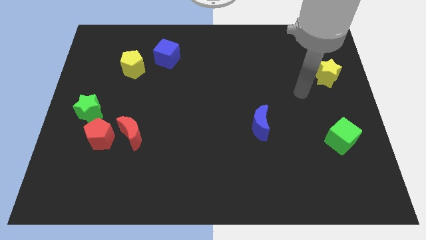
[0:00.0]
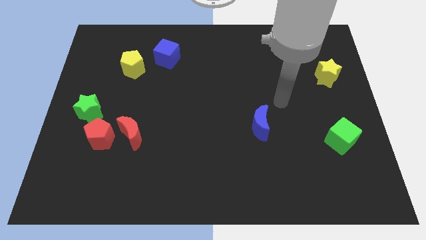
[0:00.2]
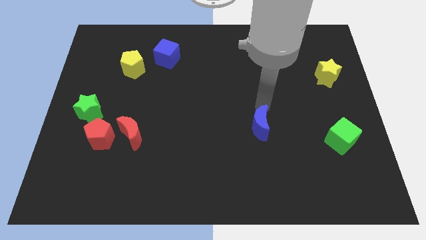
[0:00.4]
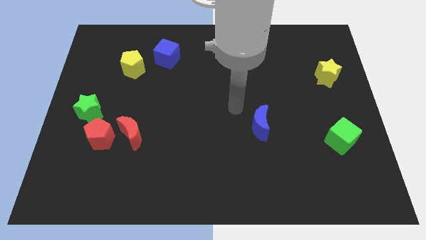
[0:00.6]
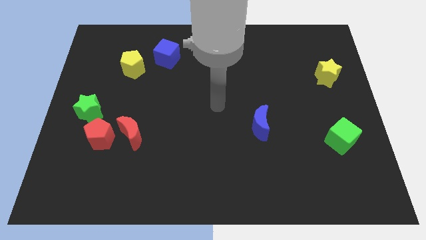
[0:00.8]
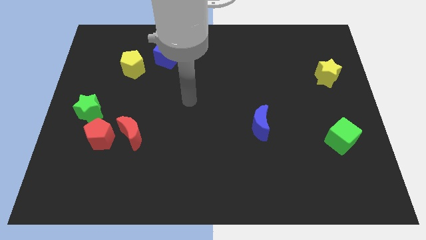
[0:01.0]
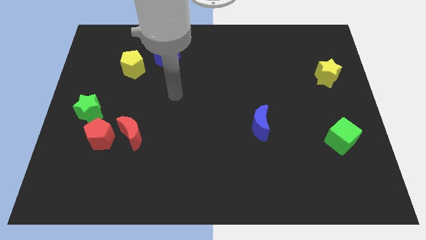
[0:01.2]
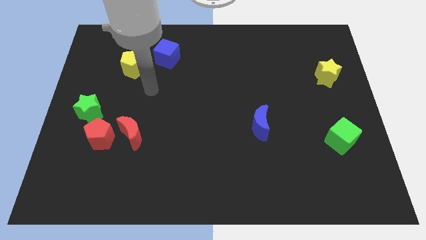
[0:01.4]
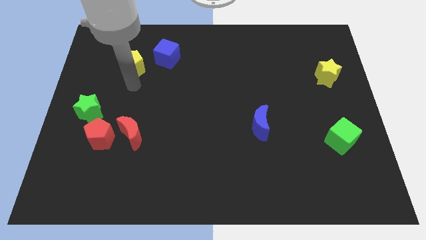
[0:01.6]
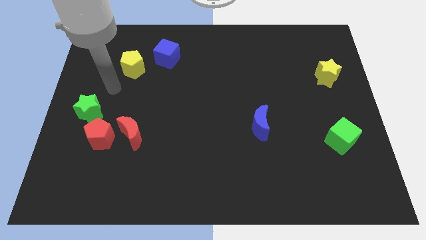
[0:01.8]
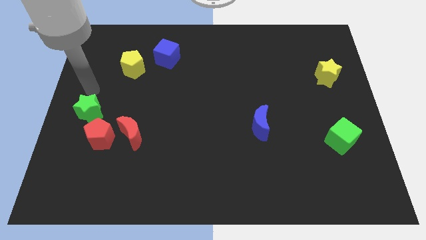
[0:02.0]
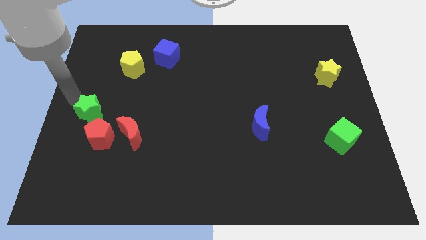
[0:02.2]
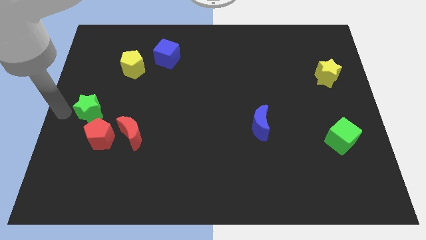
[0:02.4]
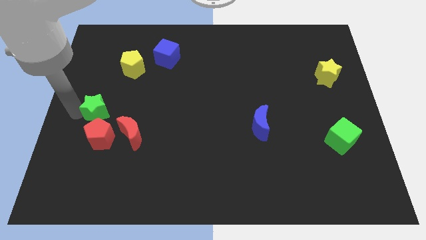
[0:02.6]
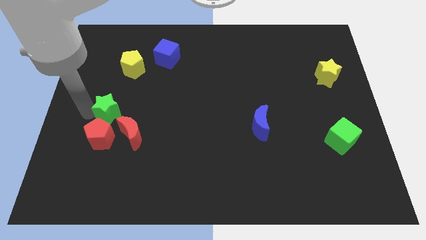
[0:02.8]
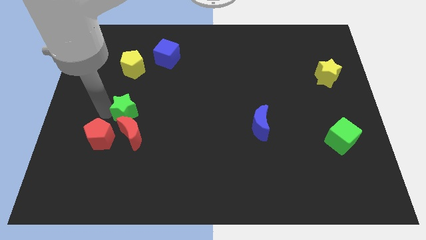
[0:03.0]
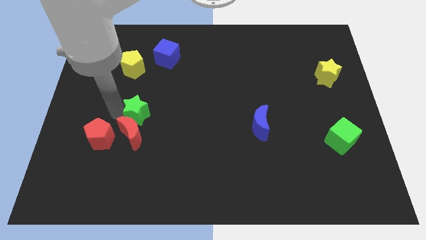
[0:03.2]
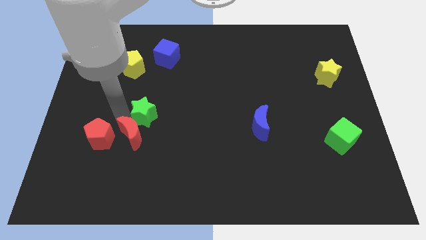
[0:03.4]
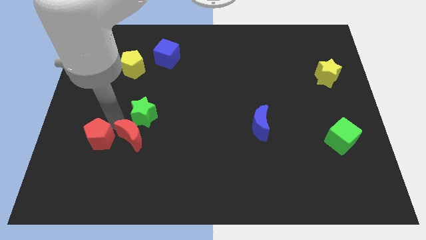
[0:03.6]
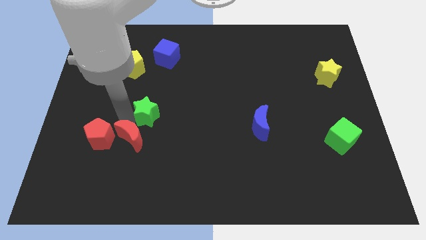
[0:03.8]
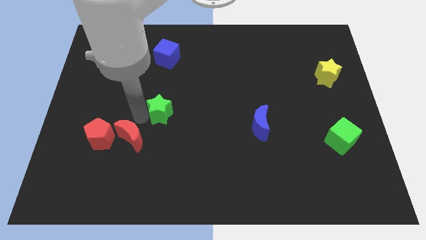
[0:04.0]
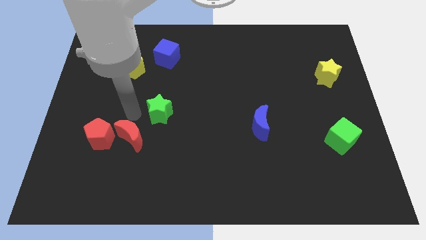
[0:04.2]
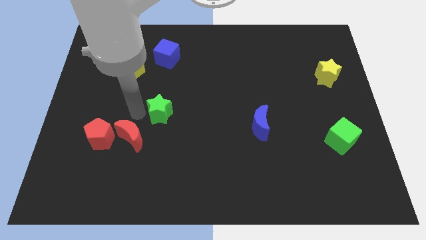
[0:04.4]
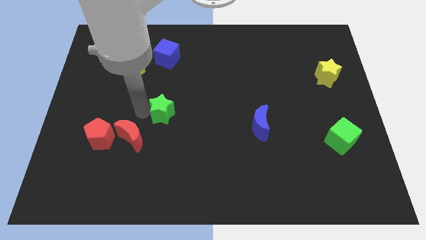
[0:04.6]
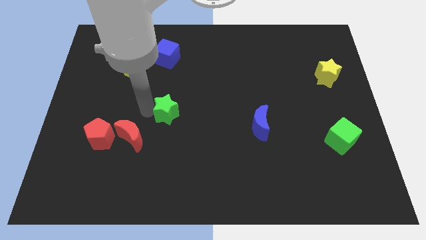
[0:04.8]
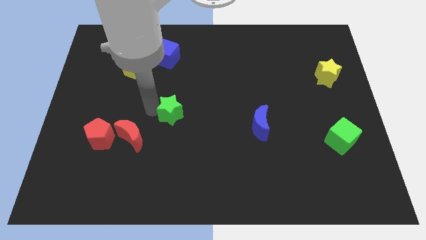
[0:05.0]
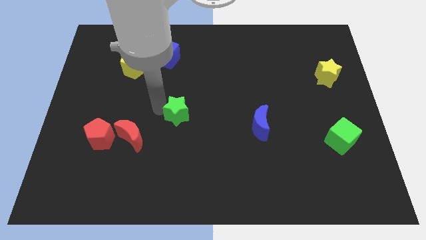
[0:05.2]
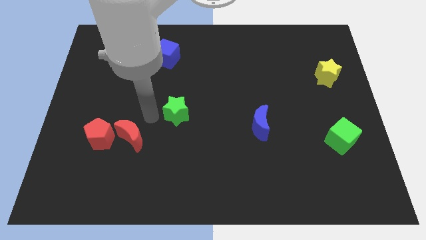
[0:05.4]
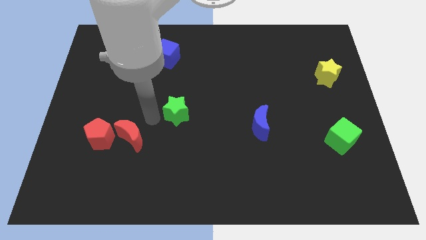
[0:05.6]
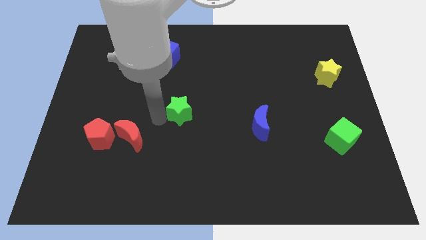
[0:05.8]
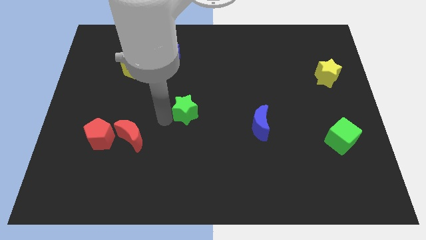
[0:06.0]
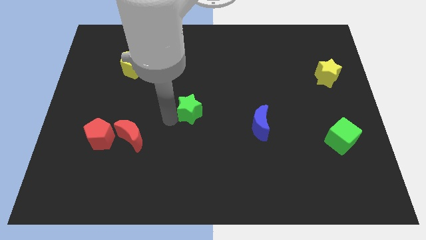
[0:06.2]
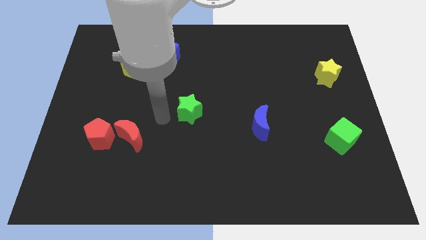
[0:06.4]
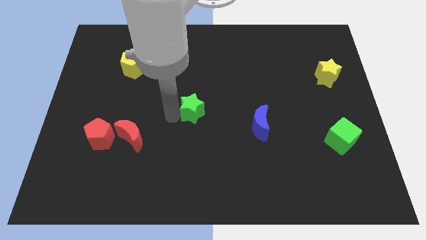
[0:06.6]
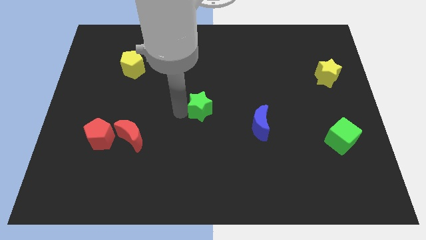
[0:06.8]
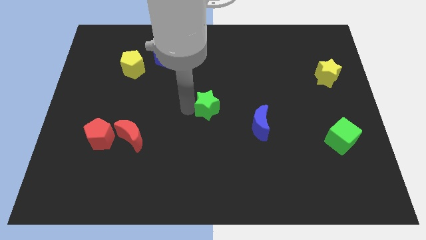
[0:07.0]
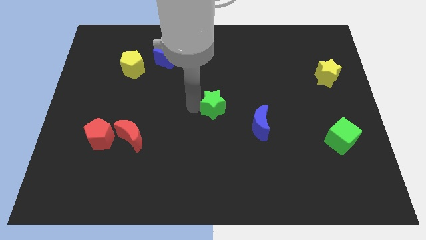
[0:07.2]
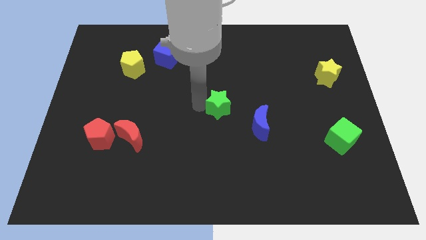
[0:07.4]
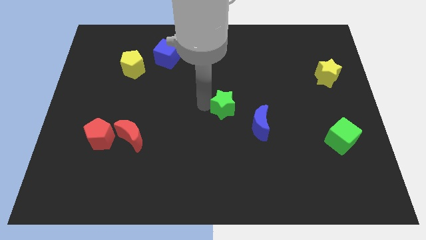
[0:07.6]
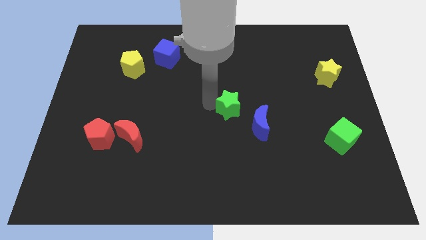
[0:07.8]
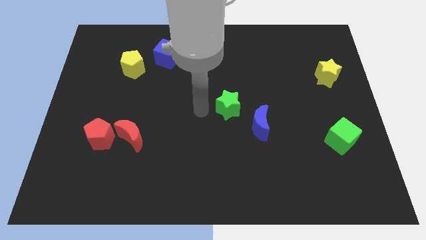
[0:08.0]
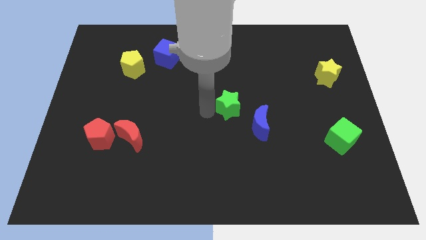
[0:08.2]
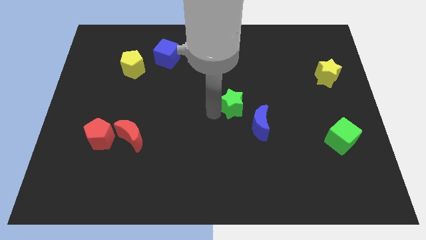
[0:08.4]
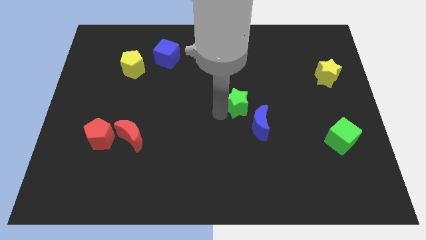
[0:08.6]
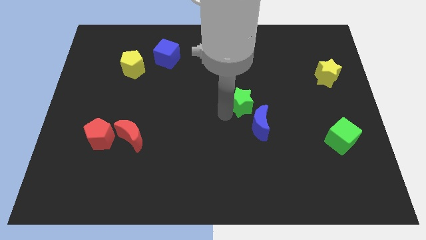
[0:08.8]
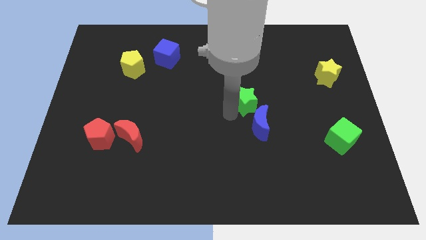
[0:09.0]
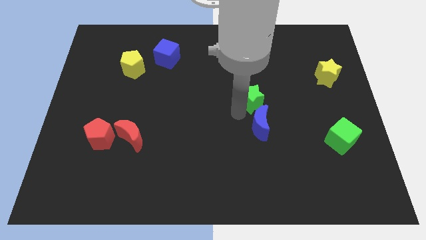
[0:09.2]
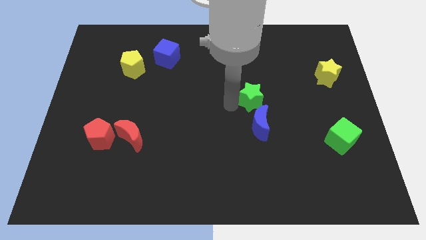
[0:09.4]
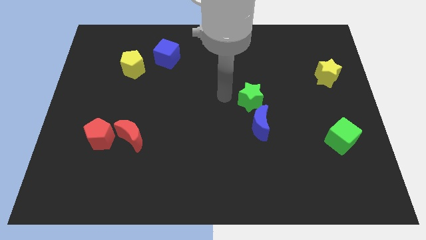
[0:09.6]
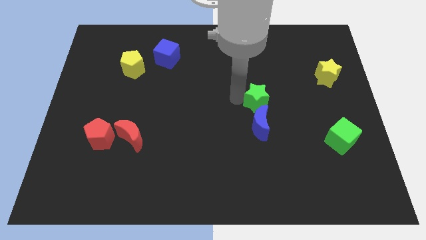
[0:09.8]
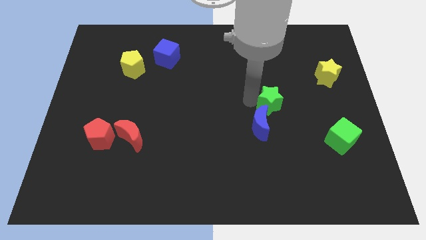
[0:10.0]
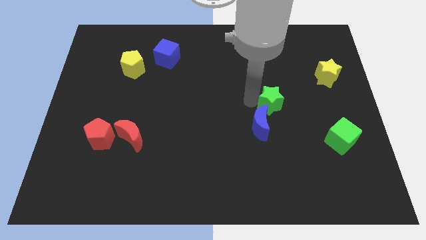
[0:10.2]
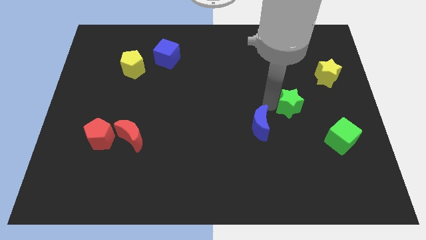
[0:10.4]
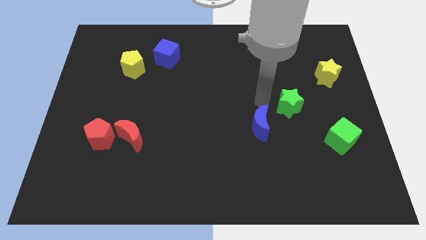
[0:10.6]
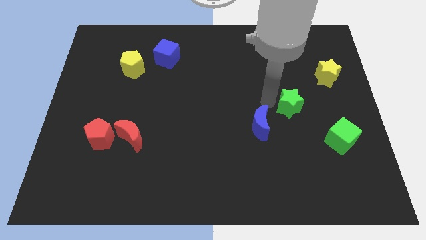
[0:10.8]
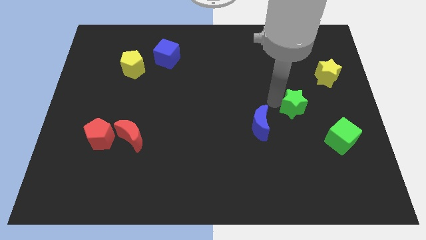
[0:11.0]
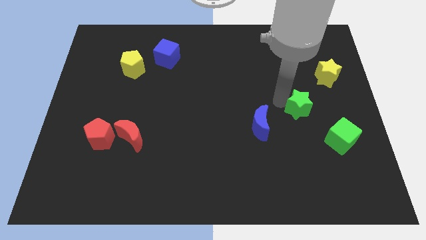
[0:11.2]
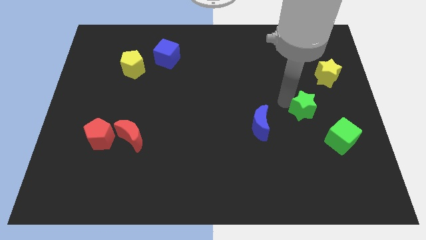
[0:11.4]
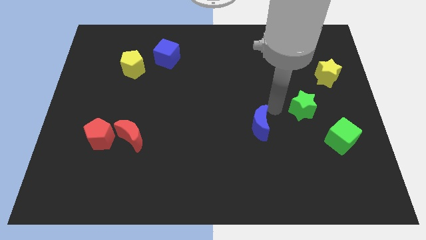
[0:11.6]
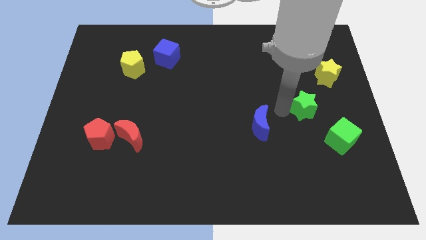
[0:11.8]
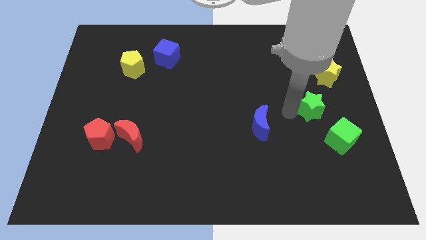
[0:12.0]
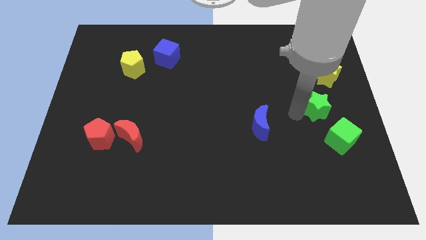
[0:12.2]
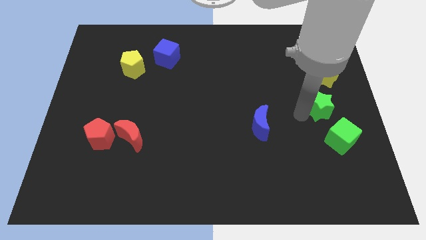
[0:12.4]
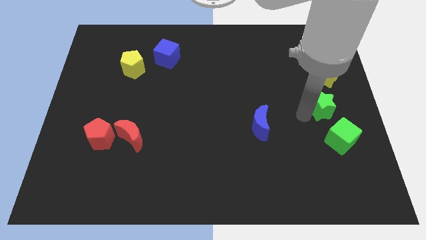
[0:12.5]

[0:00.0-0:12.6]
slide the green star to the center right
